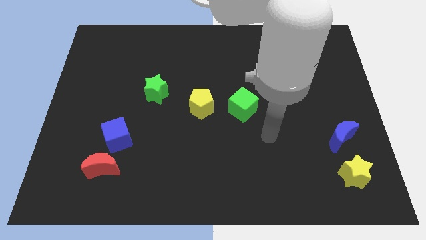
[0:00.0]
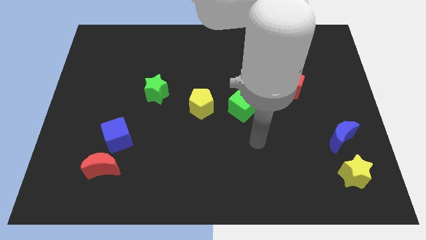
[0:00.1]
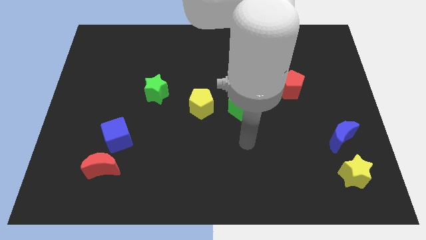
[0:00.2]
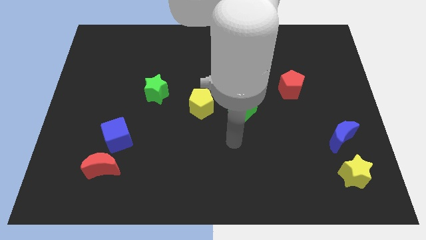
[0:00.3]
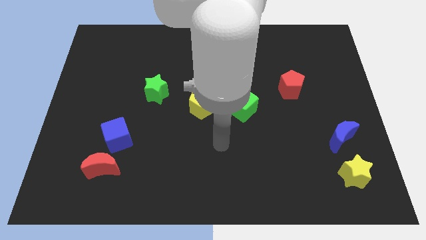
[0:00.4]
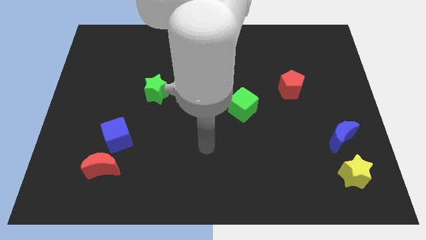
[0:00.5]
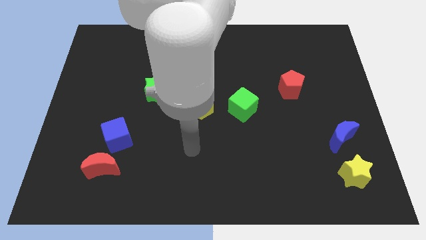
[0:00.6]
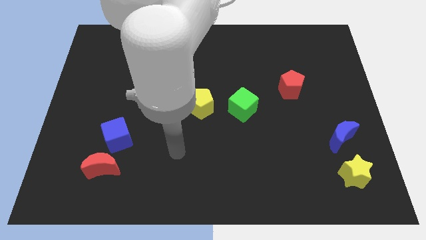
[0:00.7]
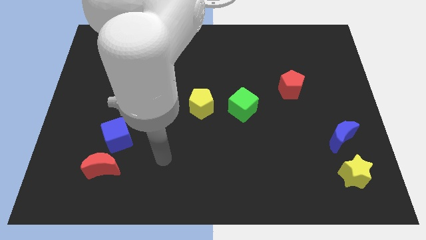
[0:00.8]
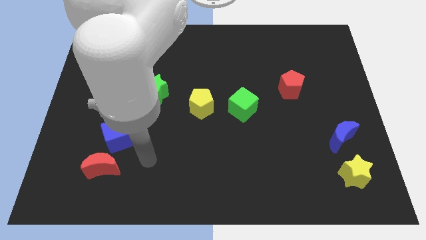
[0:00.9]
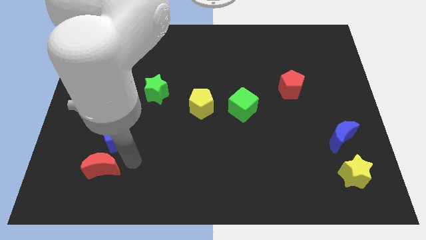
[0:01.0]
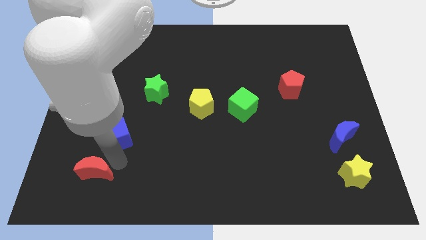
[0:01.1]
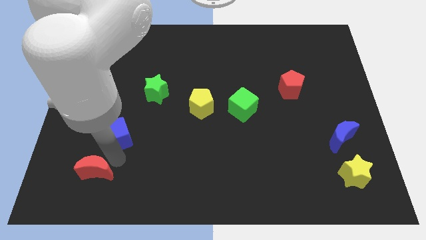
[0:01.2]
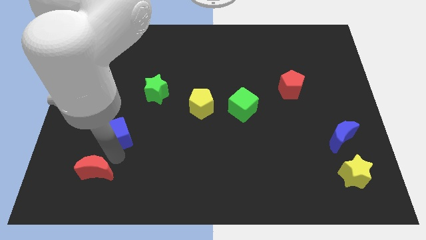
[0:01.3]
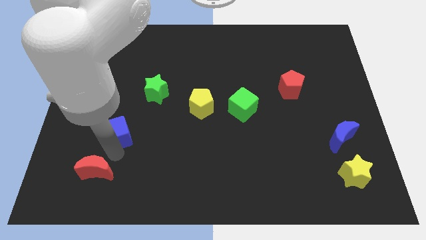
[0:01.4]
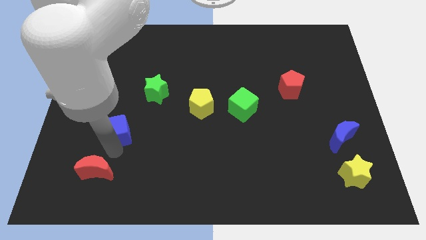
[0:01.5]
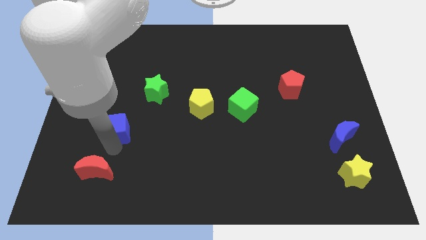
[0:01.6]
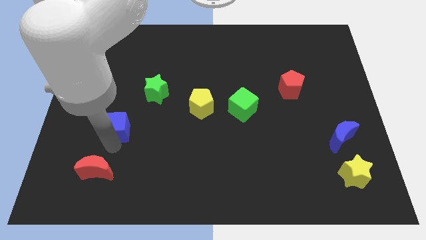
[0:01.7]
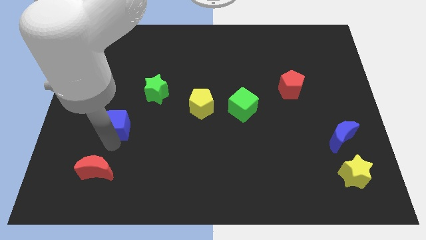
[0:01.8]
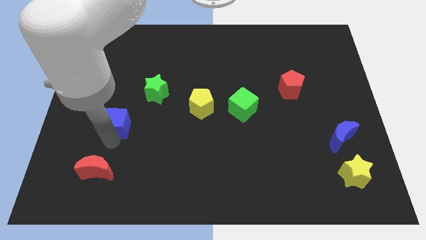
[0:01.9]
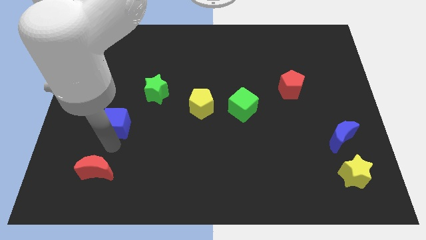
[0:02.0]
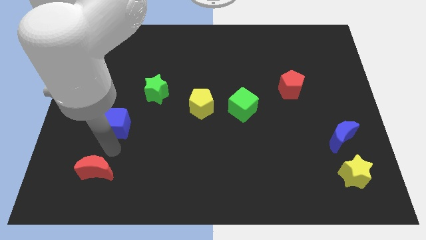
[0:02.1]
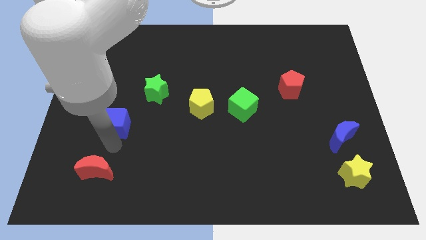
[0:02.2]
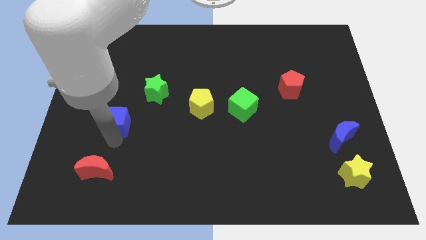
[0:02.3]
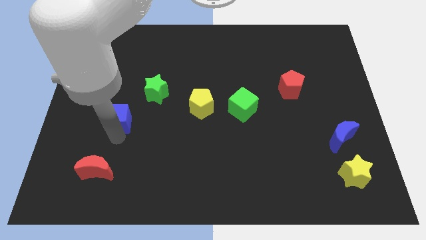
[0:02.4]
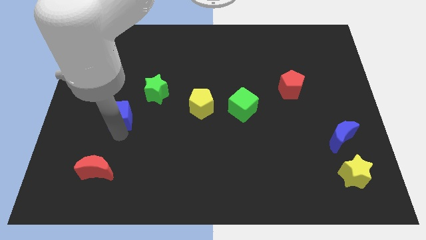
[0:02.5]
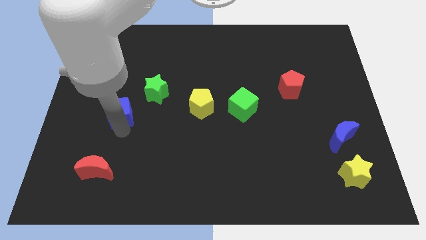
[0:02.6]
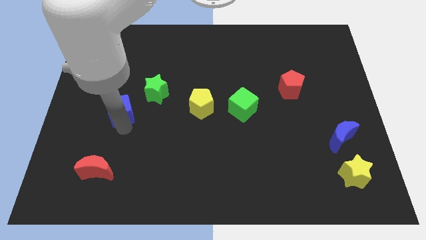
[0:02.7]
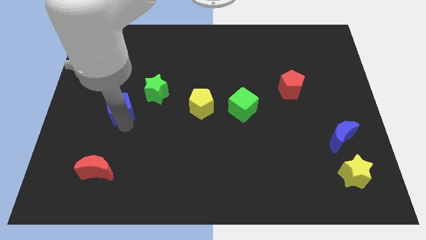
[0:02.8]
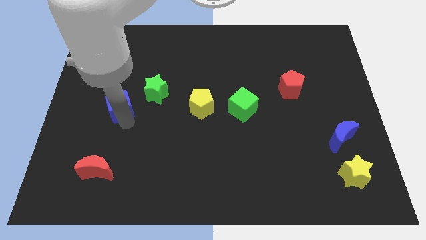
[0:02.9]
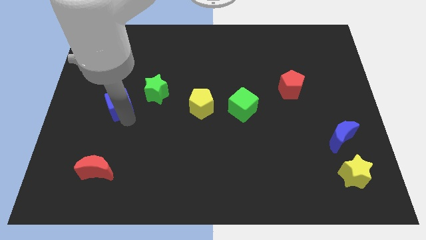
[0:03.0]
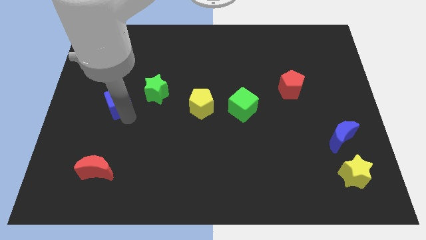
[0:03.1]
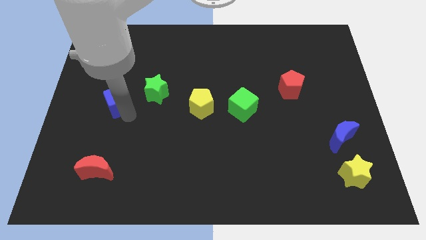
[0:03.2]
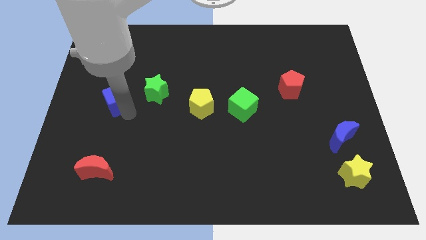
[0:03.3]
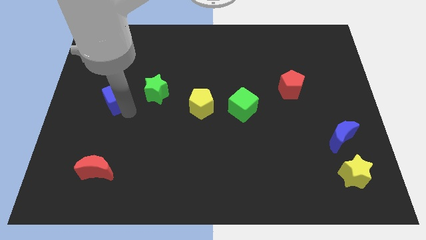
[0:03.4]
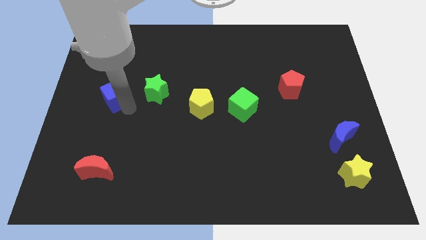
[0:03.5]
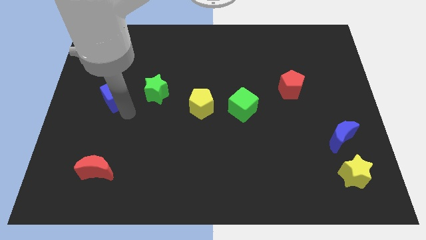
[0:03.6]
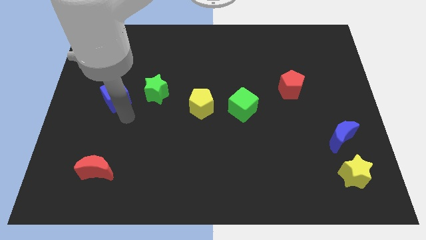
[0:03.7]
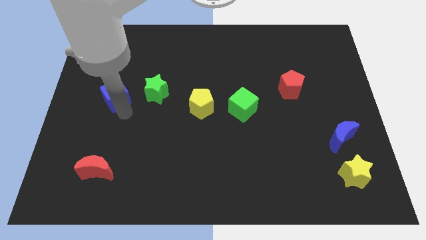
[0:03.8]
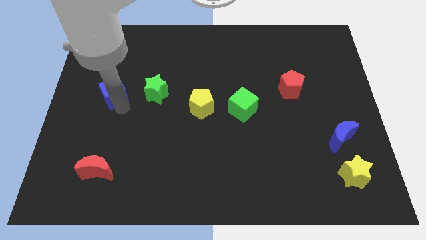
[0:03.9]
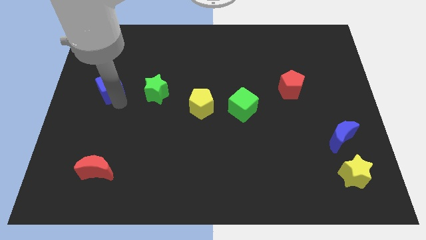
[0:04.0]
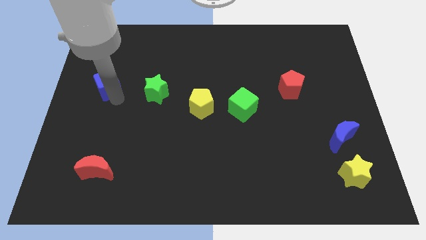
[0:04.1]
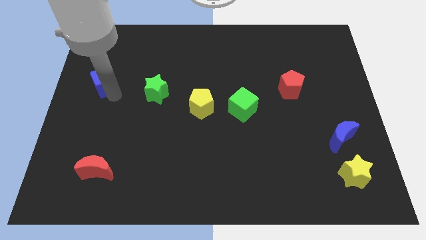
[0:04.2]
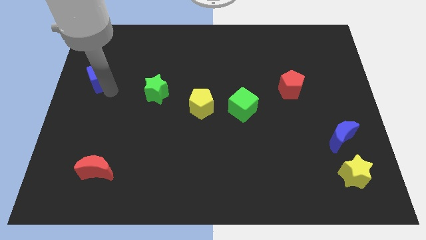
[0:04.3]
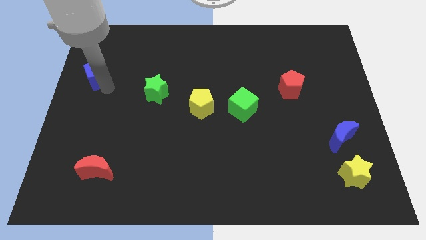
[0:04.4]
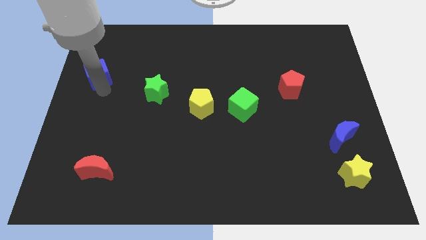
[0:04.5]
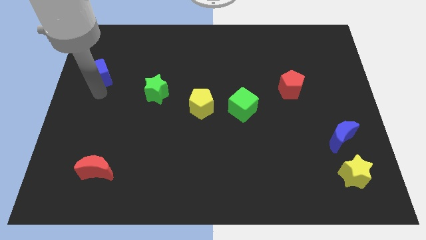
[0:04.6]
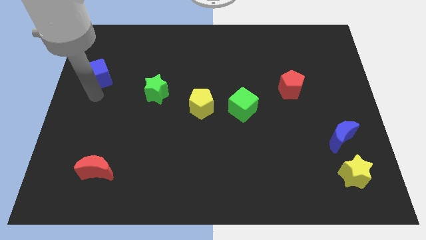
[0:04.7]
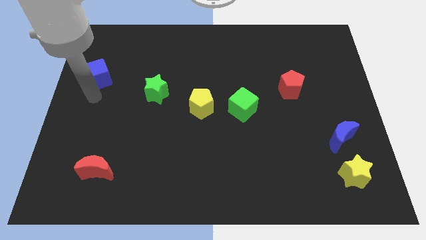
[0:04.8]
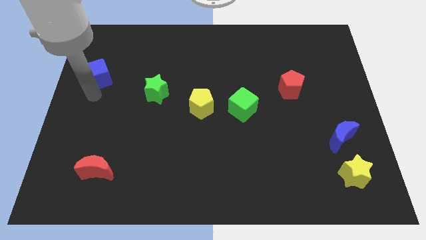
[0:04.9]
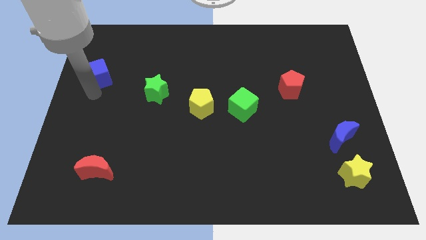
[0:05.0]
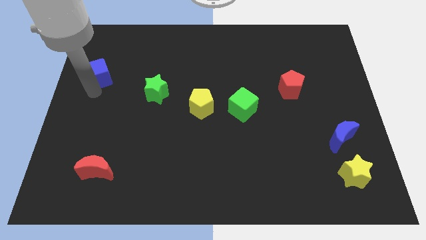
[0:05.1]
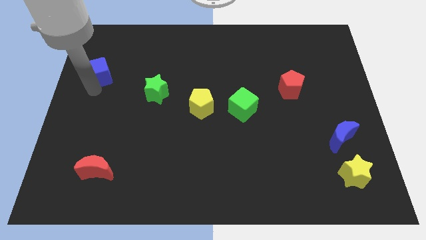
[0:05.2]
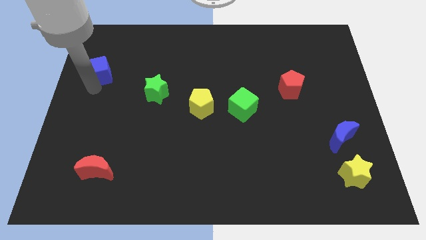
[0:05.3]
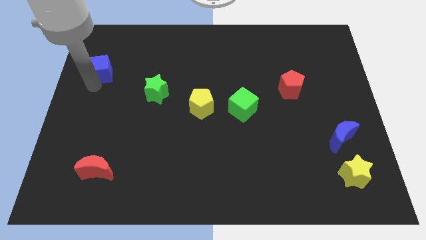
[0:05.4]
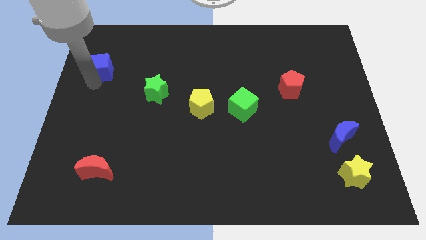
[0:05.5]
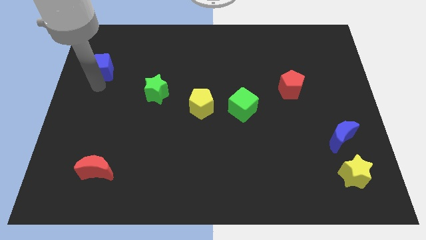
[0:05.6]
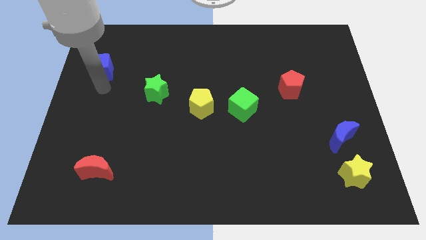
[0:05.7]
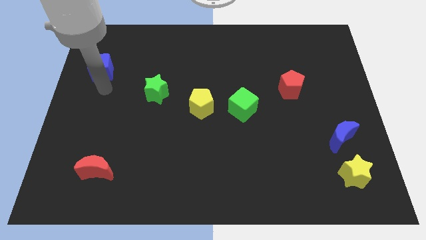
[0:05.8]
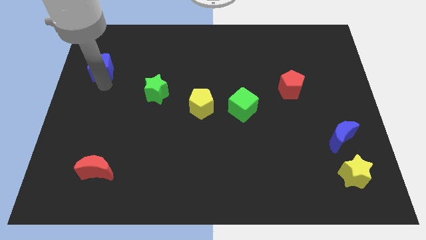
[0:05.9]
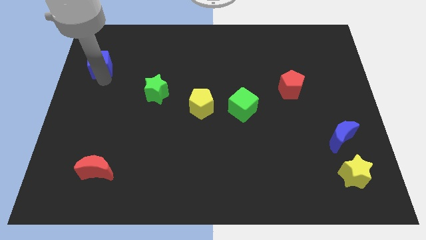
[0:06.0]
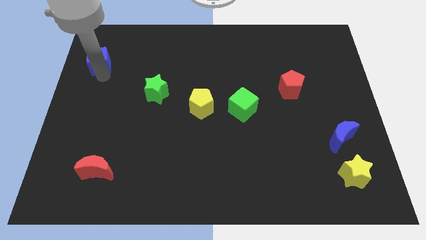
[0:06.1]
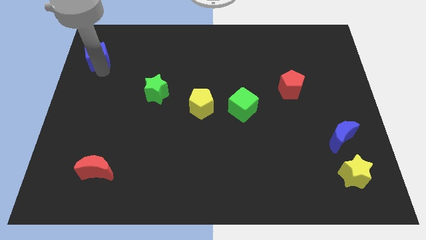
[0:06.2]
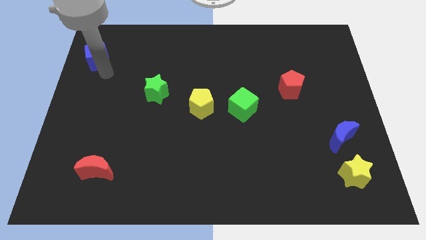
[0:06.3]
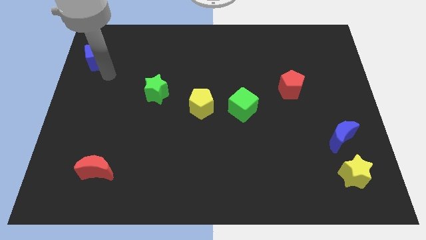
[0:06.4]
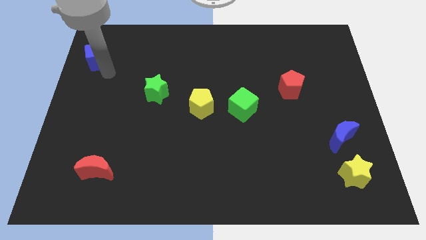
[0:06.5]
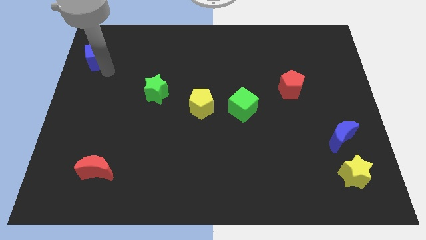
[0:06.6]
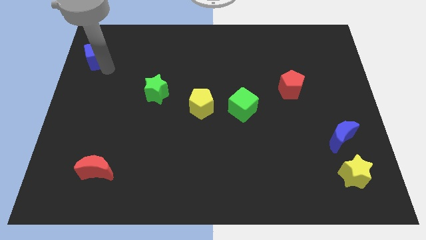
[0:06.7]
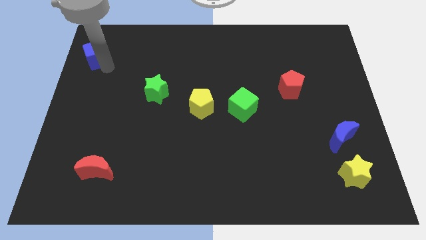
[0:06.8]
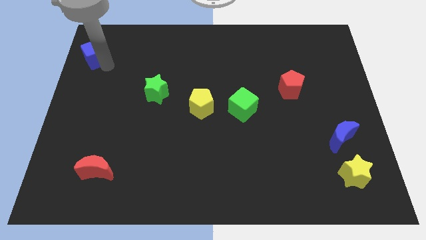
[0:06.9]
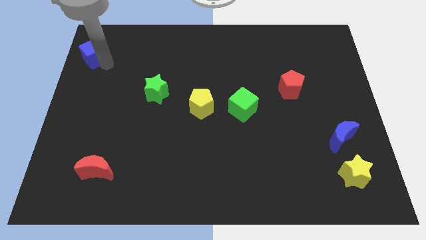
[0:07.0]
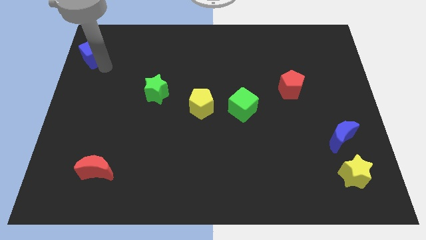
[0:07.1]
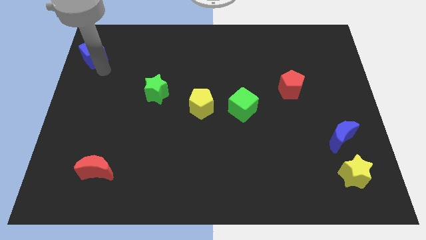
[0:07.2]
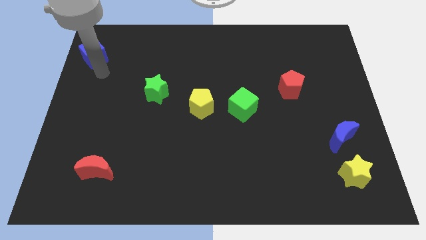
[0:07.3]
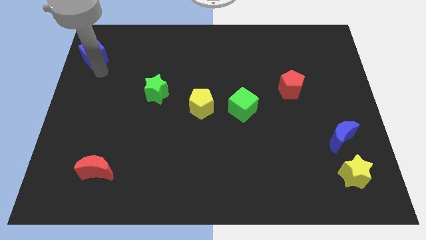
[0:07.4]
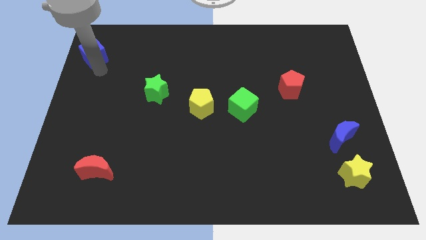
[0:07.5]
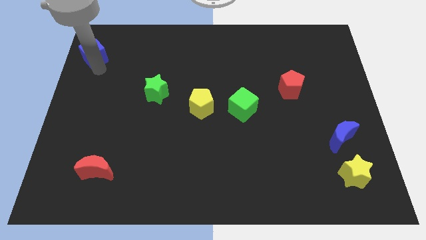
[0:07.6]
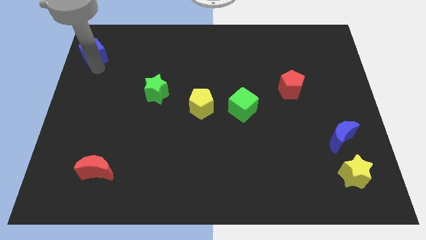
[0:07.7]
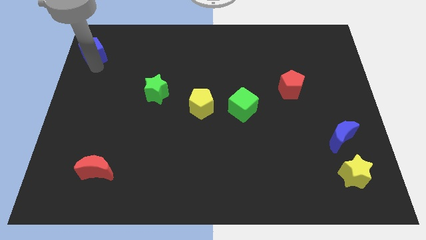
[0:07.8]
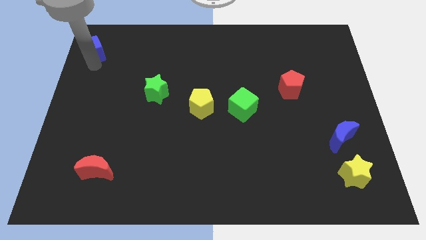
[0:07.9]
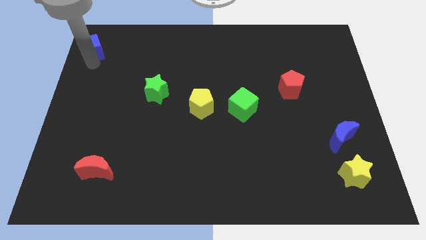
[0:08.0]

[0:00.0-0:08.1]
slide the blue cube to the top left corner

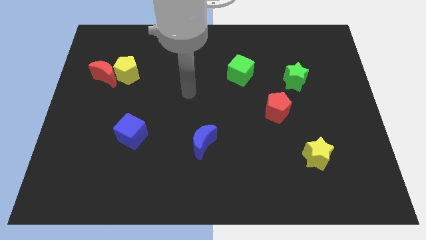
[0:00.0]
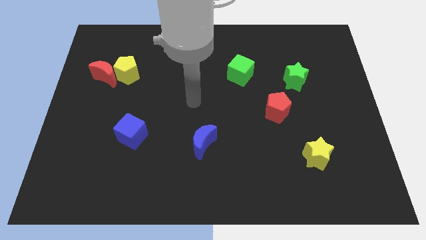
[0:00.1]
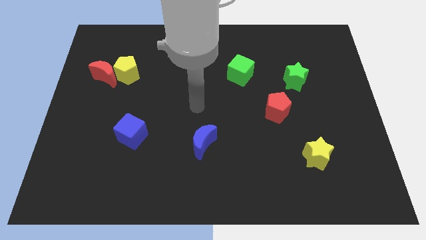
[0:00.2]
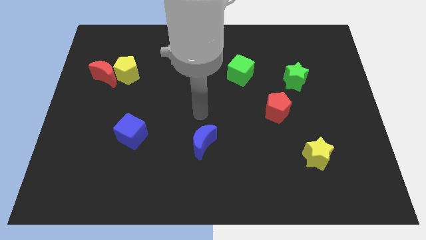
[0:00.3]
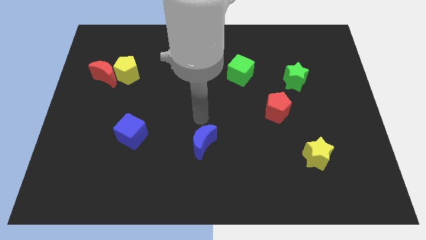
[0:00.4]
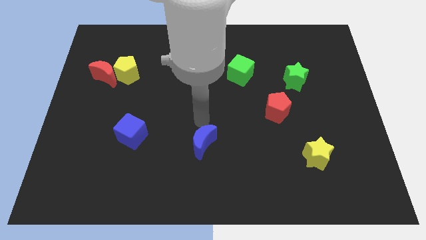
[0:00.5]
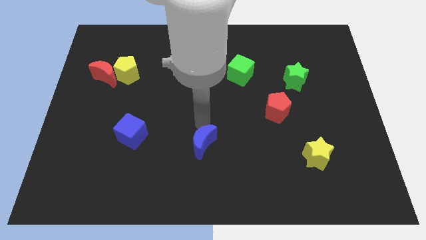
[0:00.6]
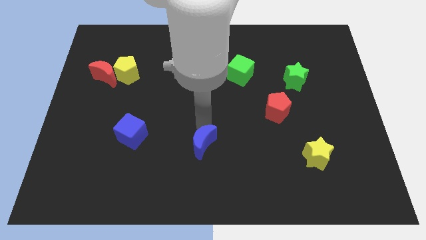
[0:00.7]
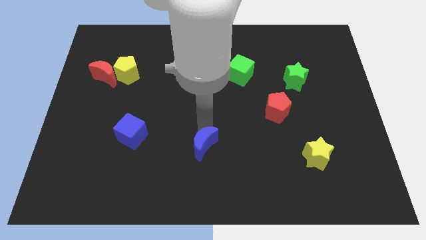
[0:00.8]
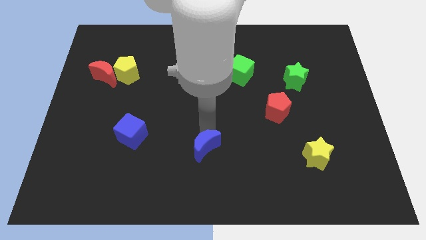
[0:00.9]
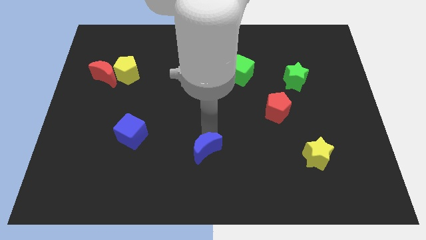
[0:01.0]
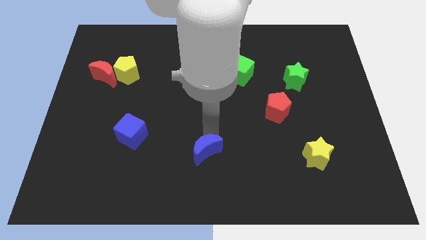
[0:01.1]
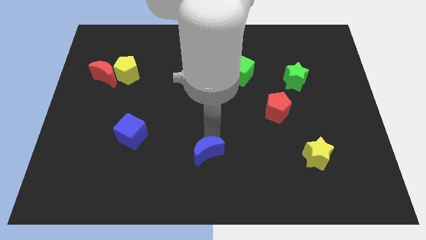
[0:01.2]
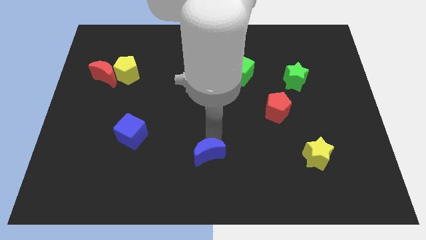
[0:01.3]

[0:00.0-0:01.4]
slide the blue moon to the bottom
